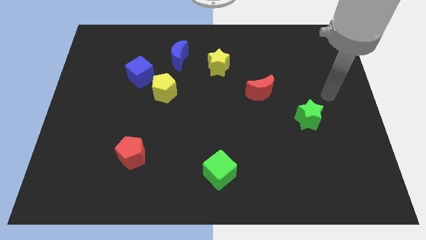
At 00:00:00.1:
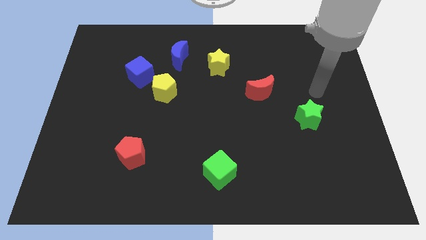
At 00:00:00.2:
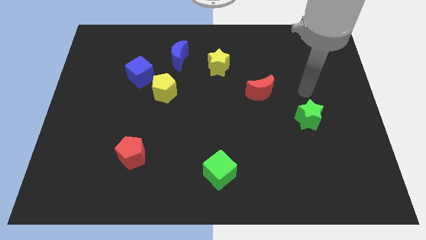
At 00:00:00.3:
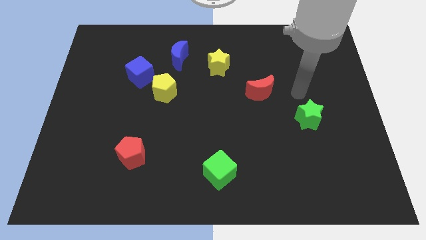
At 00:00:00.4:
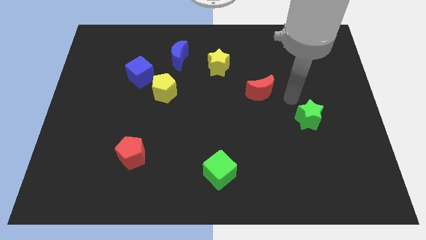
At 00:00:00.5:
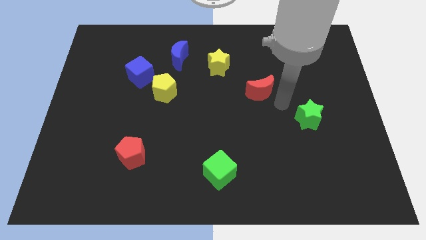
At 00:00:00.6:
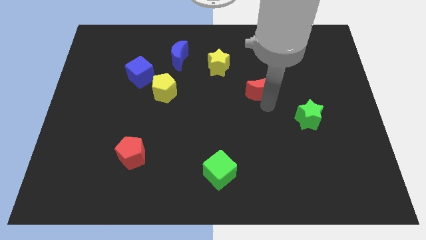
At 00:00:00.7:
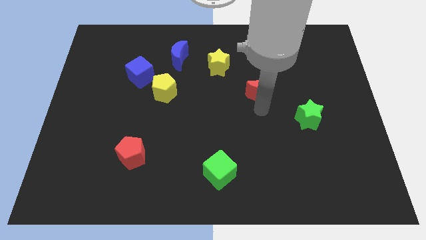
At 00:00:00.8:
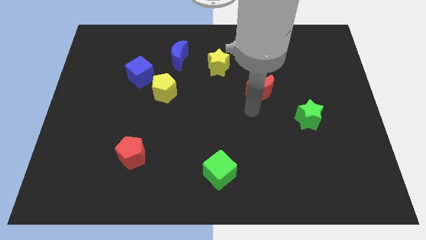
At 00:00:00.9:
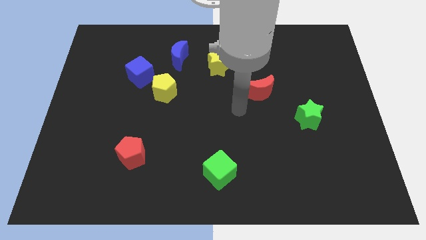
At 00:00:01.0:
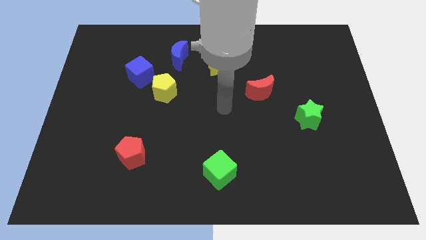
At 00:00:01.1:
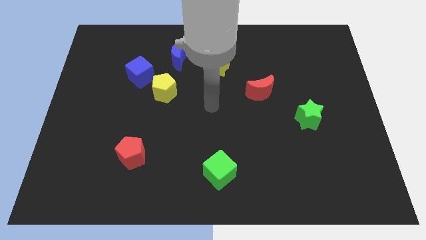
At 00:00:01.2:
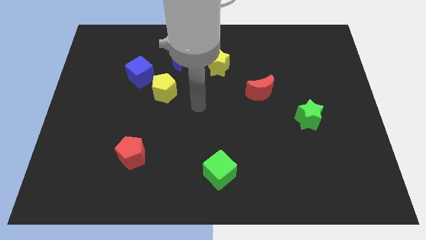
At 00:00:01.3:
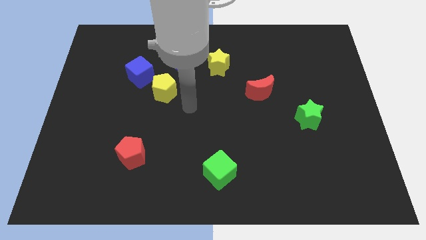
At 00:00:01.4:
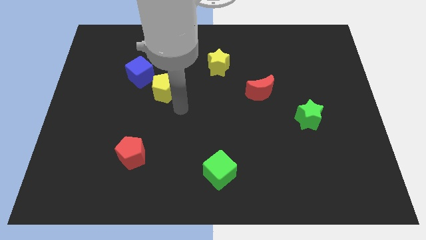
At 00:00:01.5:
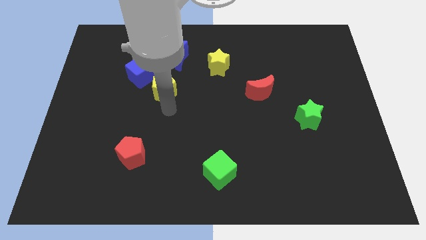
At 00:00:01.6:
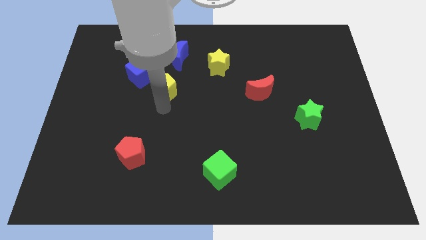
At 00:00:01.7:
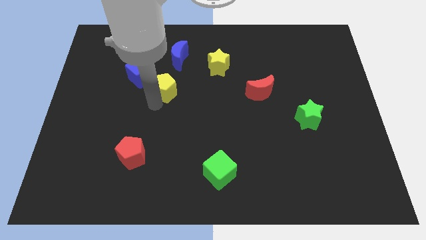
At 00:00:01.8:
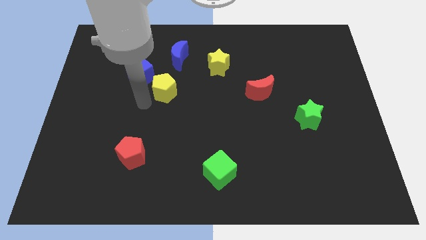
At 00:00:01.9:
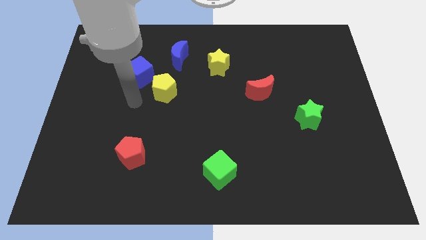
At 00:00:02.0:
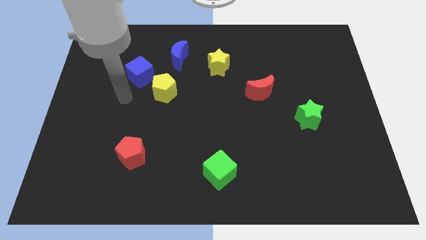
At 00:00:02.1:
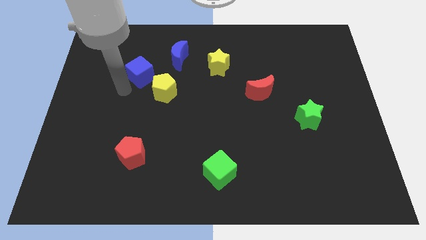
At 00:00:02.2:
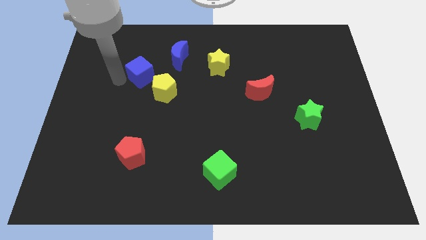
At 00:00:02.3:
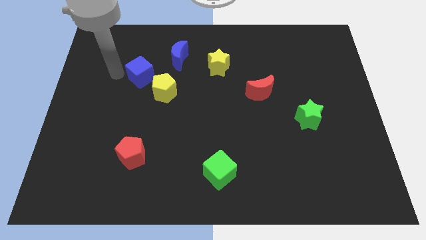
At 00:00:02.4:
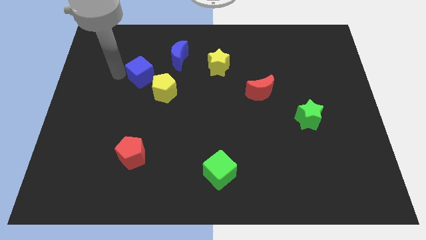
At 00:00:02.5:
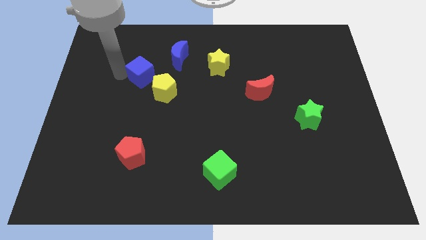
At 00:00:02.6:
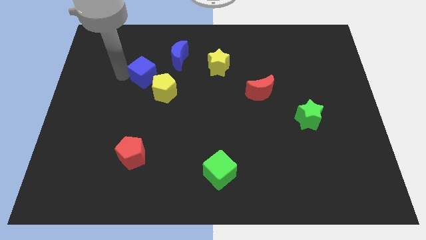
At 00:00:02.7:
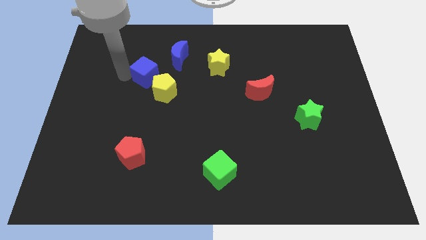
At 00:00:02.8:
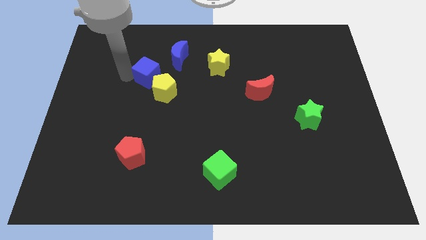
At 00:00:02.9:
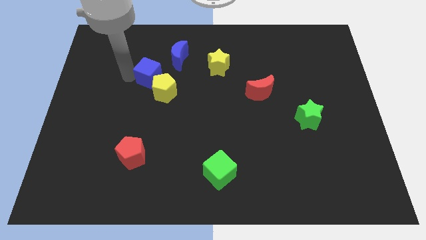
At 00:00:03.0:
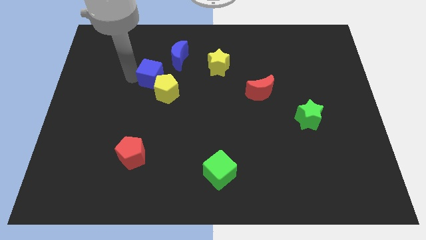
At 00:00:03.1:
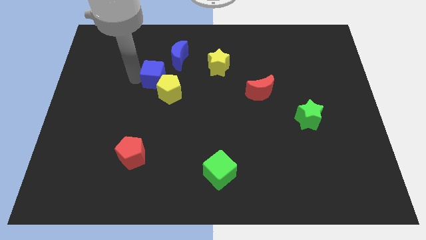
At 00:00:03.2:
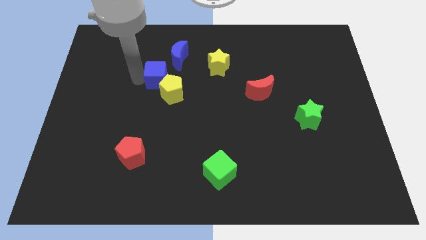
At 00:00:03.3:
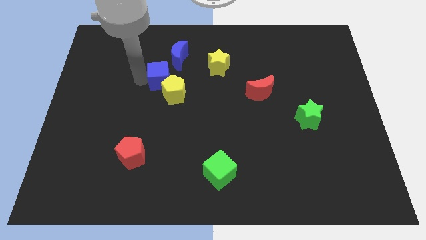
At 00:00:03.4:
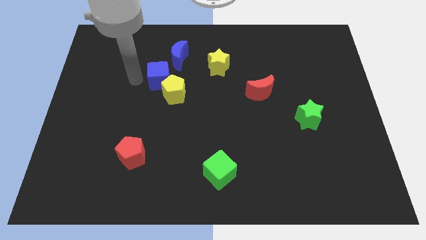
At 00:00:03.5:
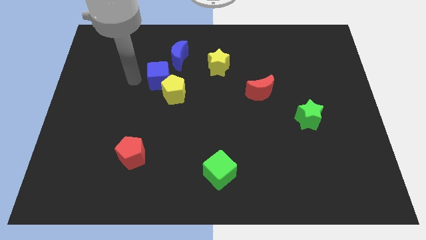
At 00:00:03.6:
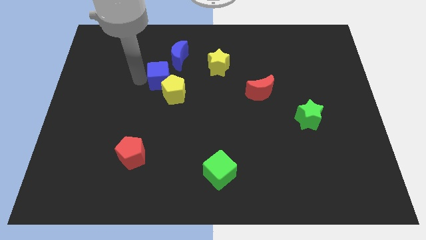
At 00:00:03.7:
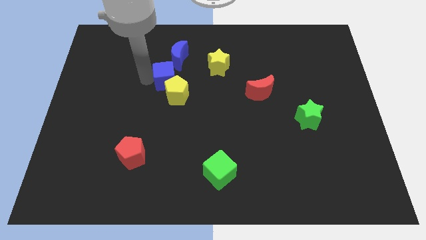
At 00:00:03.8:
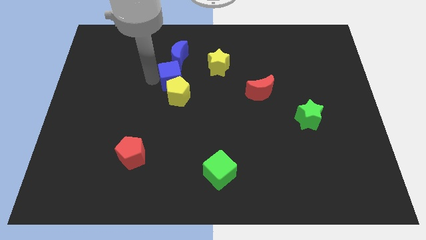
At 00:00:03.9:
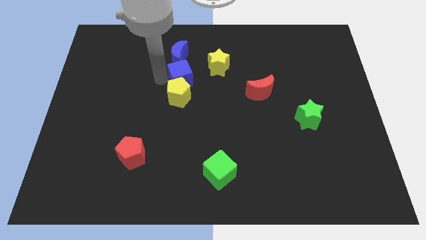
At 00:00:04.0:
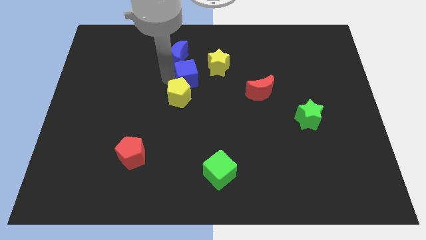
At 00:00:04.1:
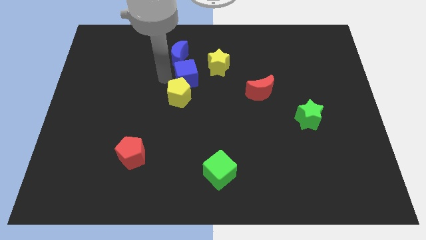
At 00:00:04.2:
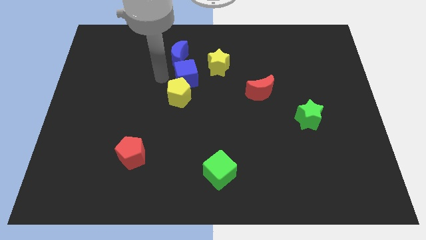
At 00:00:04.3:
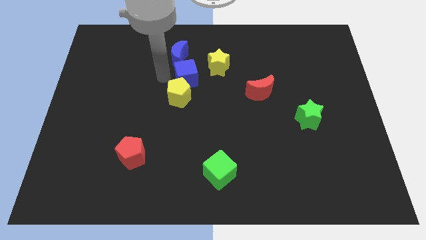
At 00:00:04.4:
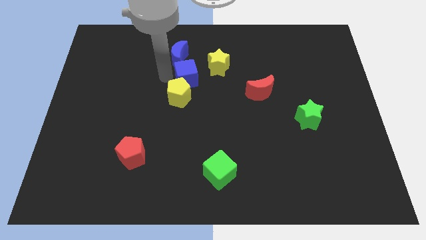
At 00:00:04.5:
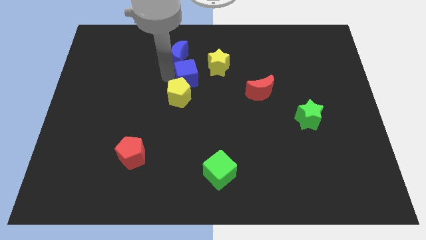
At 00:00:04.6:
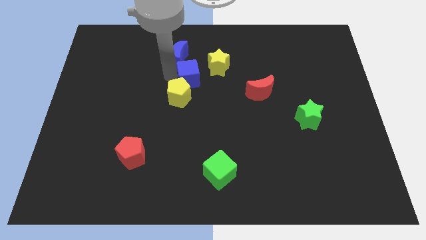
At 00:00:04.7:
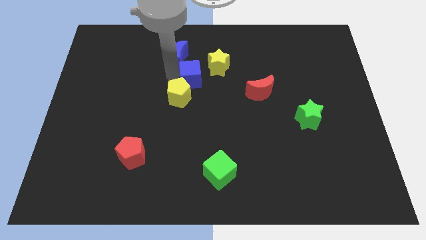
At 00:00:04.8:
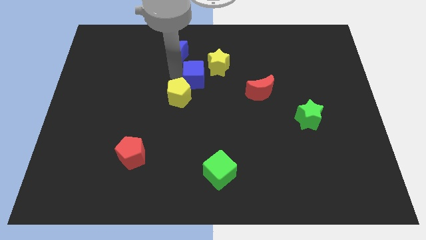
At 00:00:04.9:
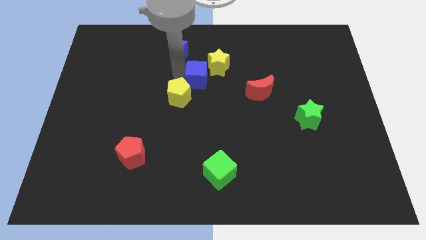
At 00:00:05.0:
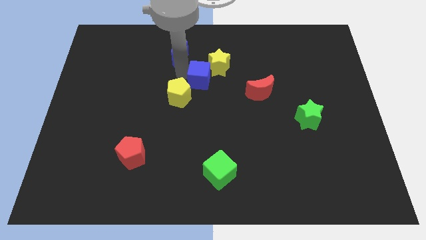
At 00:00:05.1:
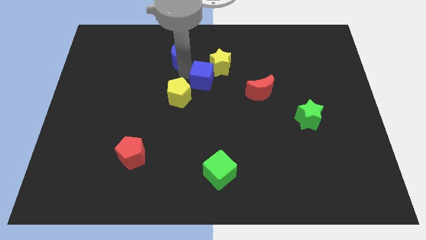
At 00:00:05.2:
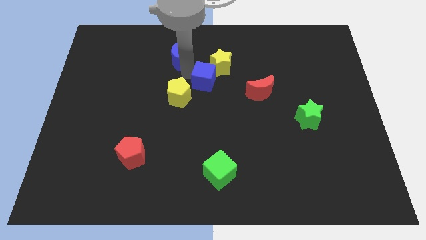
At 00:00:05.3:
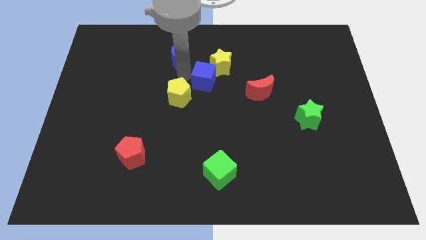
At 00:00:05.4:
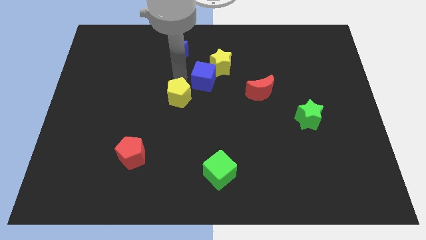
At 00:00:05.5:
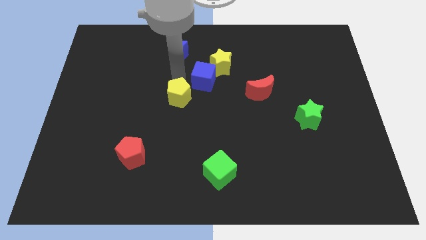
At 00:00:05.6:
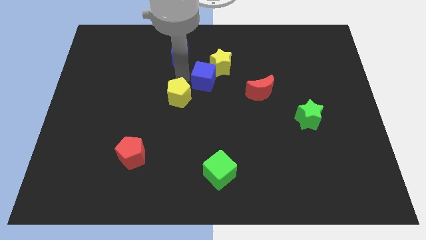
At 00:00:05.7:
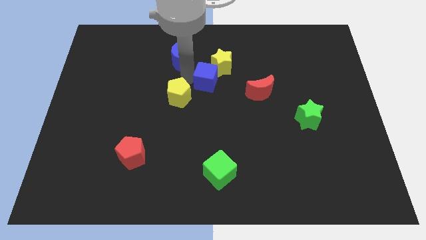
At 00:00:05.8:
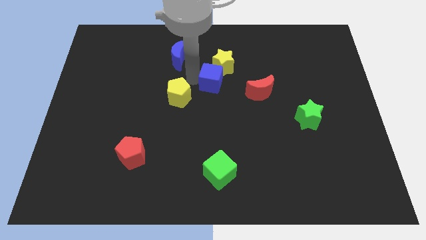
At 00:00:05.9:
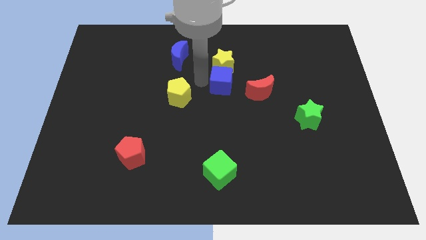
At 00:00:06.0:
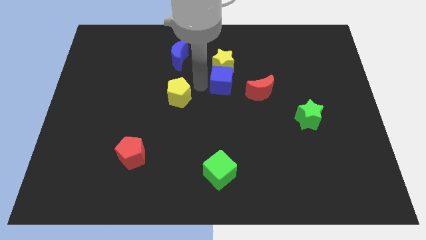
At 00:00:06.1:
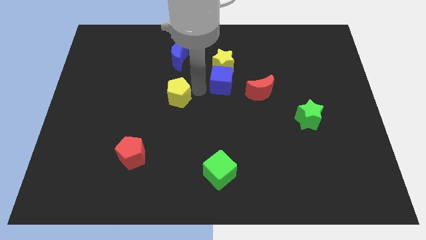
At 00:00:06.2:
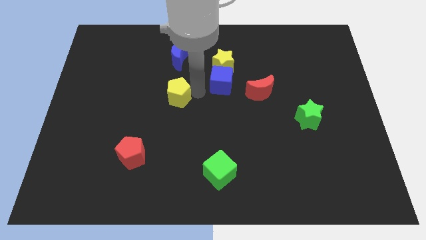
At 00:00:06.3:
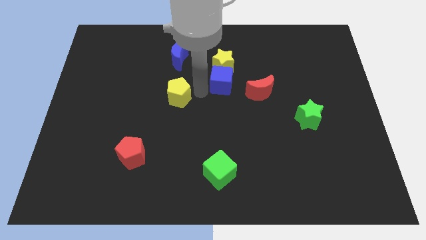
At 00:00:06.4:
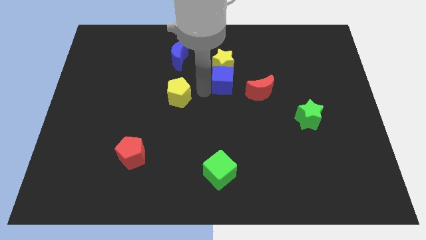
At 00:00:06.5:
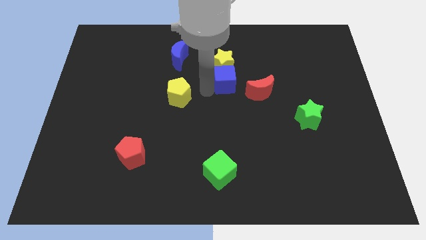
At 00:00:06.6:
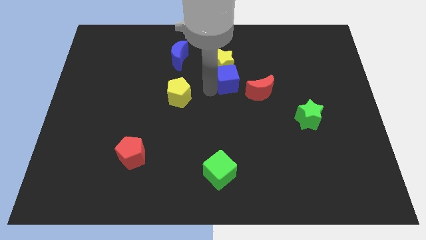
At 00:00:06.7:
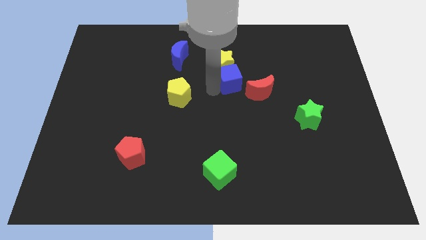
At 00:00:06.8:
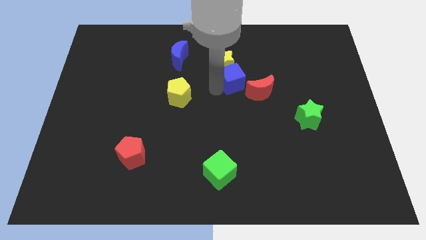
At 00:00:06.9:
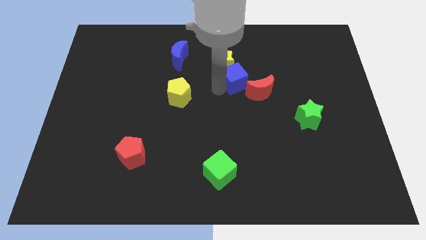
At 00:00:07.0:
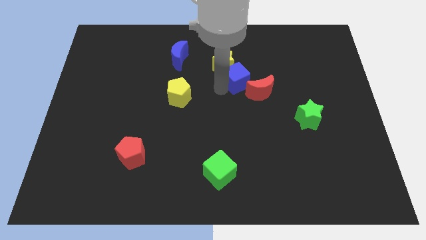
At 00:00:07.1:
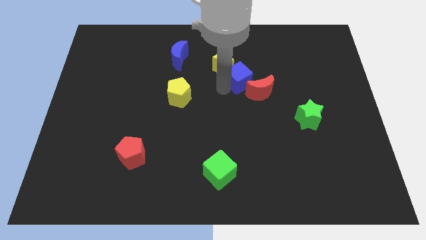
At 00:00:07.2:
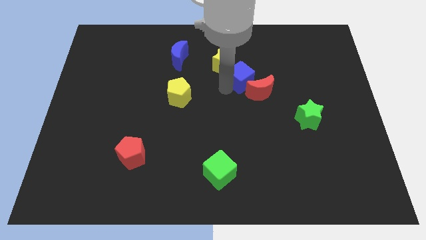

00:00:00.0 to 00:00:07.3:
move the blue cube to the right side of the yellow star
